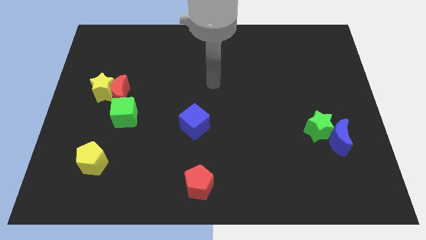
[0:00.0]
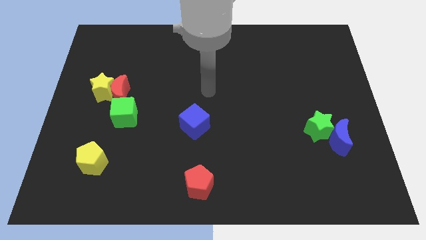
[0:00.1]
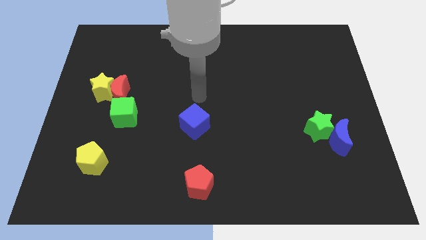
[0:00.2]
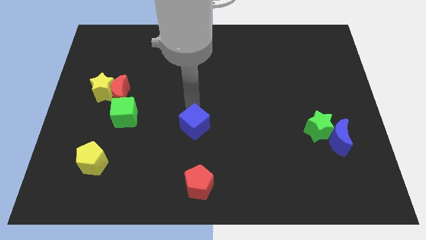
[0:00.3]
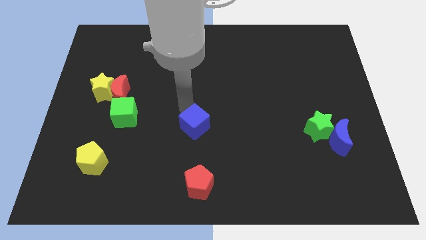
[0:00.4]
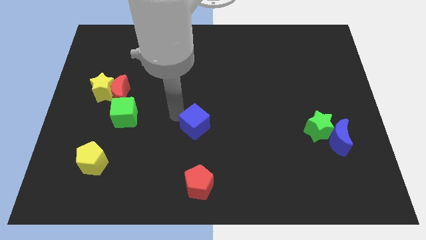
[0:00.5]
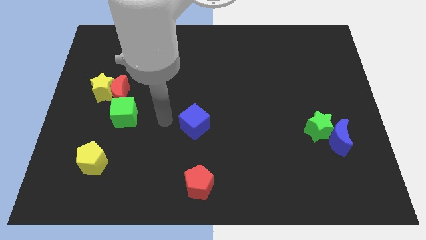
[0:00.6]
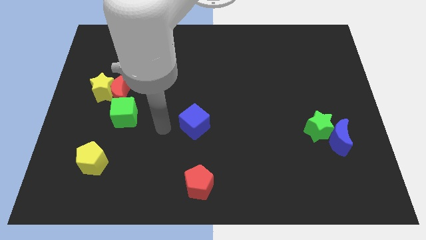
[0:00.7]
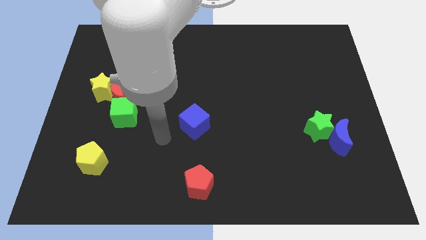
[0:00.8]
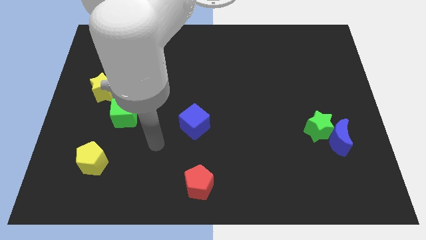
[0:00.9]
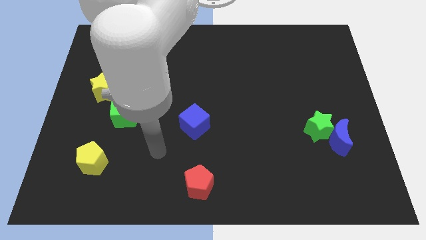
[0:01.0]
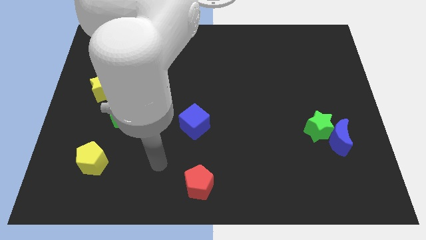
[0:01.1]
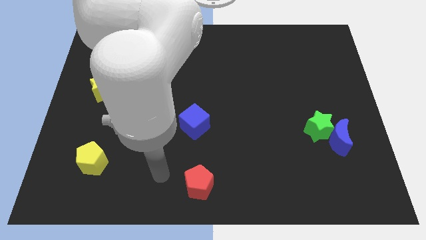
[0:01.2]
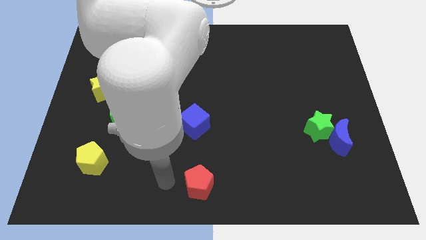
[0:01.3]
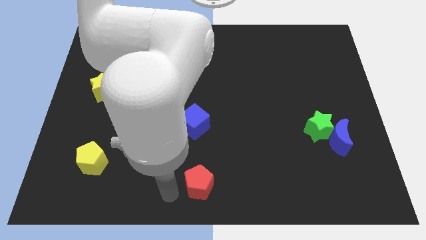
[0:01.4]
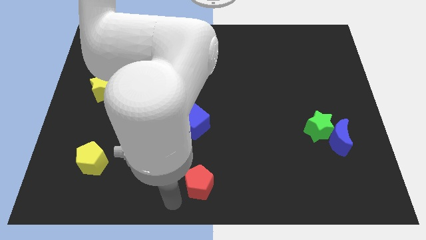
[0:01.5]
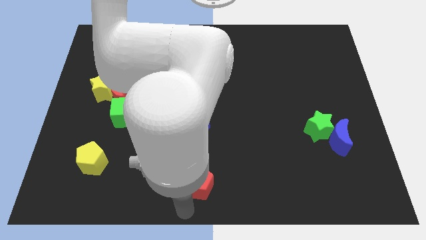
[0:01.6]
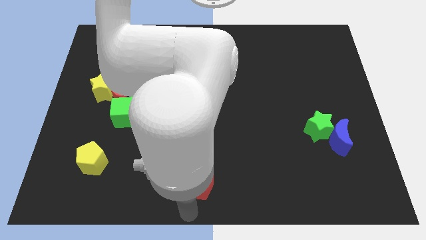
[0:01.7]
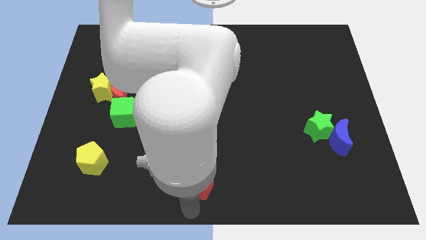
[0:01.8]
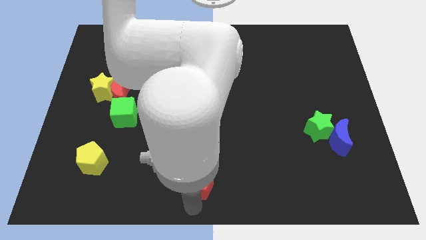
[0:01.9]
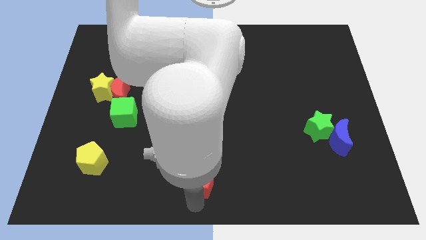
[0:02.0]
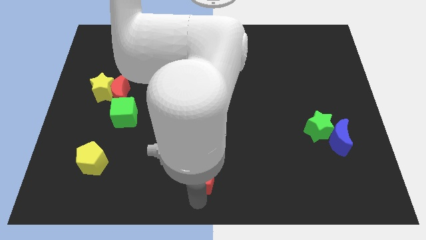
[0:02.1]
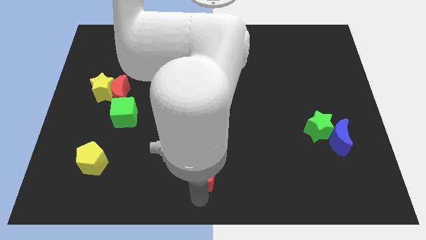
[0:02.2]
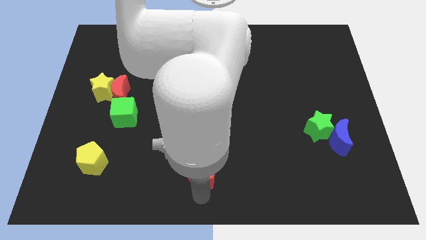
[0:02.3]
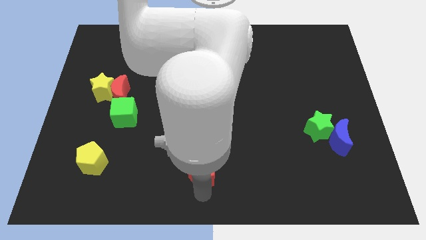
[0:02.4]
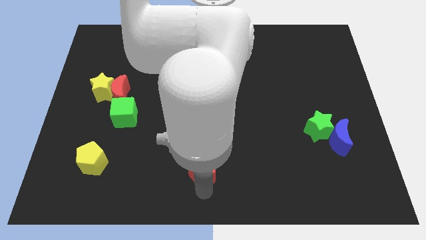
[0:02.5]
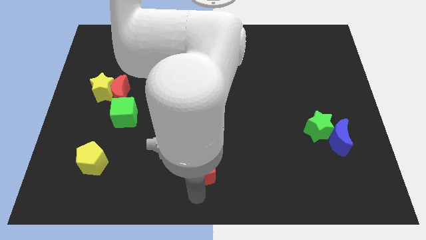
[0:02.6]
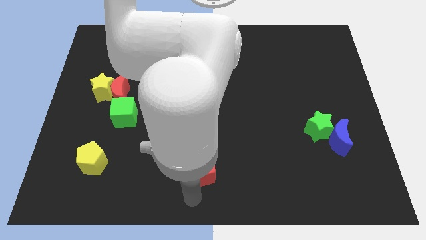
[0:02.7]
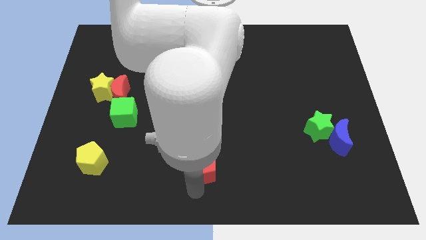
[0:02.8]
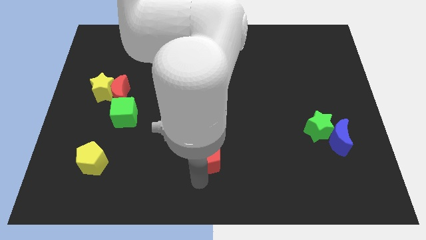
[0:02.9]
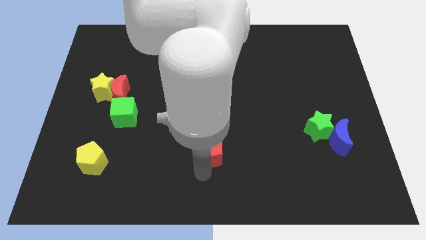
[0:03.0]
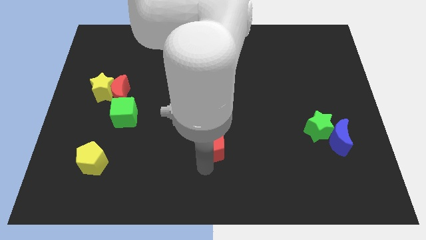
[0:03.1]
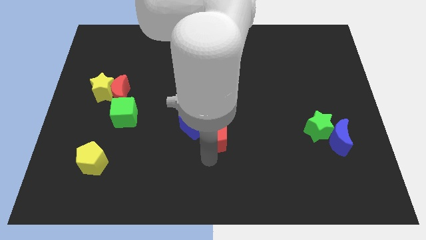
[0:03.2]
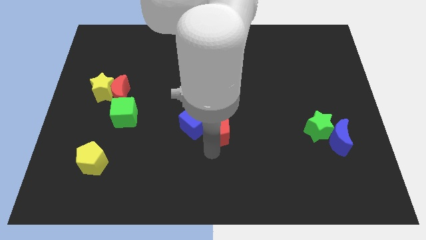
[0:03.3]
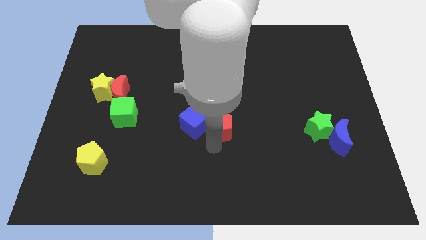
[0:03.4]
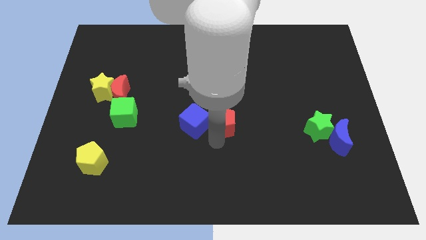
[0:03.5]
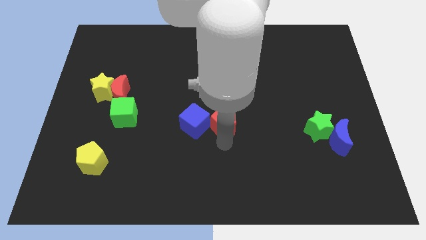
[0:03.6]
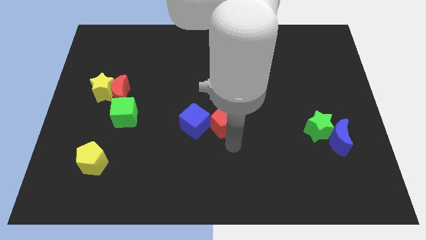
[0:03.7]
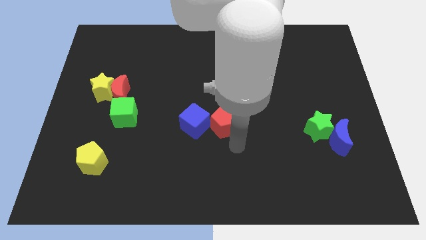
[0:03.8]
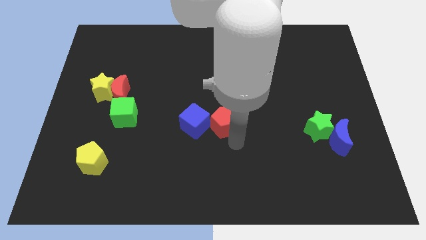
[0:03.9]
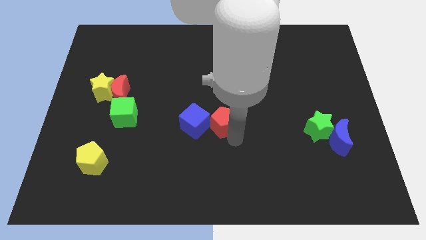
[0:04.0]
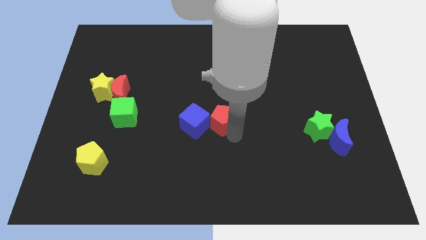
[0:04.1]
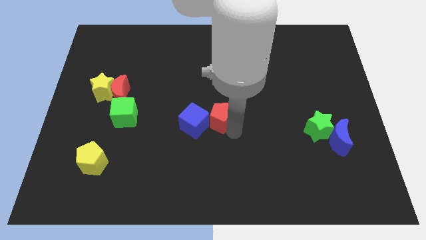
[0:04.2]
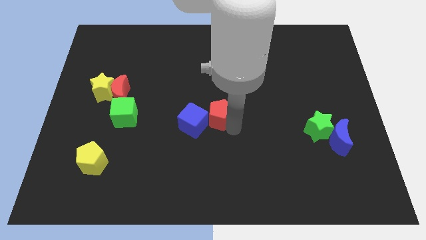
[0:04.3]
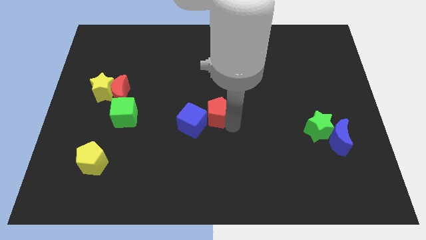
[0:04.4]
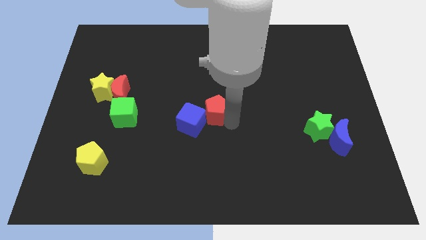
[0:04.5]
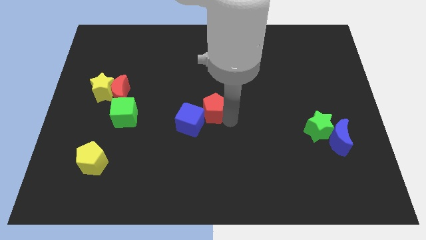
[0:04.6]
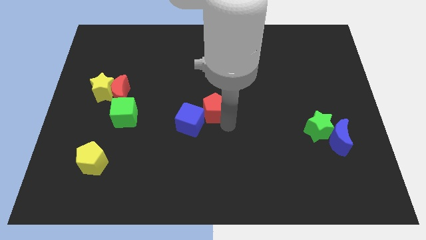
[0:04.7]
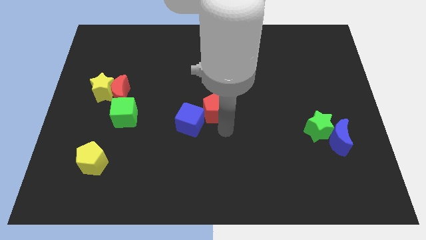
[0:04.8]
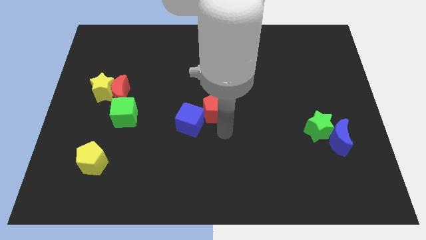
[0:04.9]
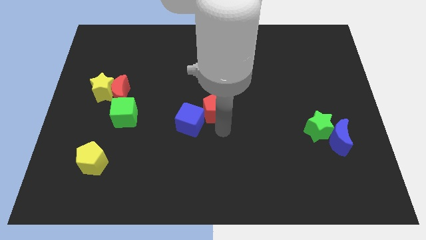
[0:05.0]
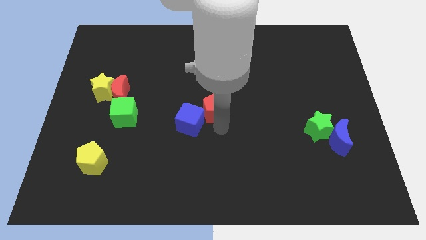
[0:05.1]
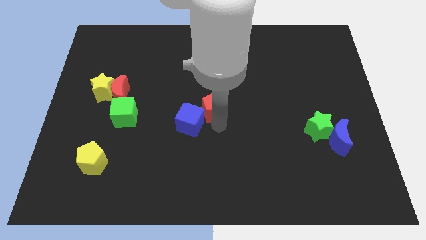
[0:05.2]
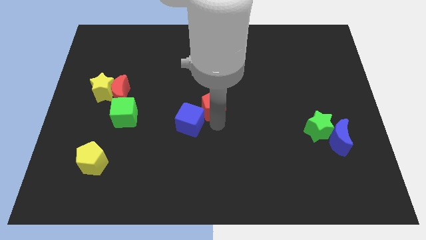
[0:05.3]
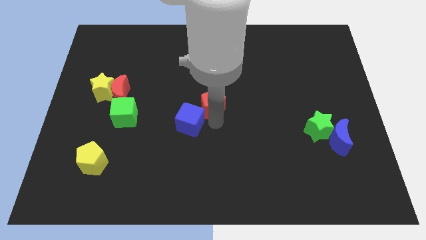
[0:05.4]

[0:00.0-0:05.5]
push the red pentagon upwards

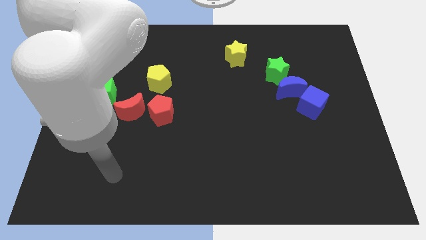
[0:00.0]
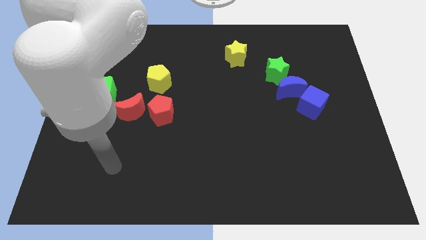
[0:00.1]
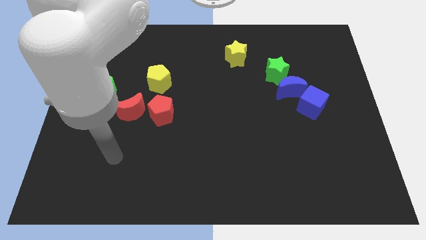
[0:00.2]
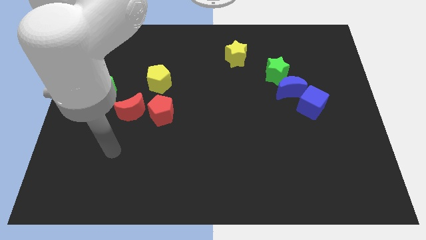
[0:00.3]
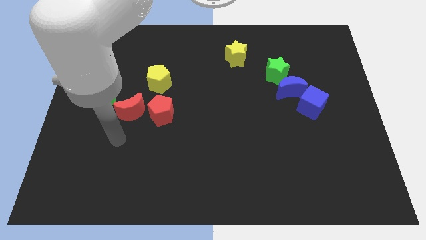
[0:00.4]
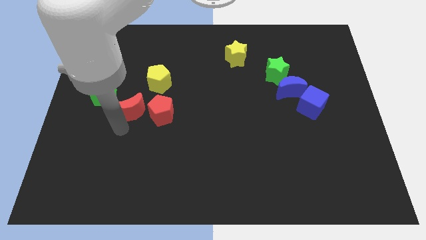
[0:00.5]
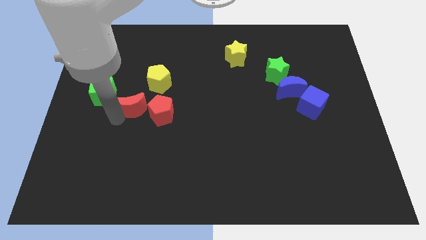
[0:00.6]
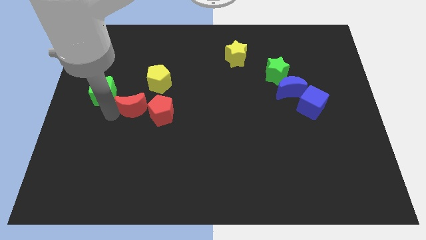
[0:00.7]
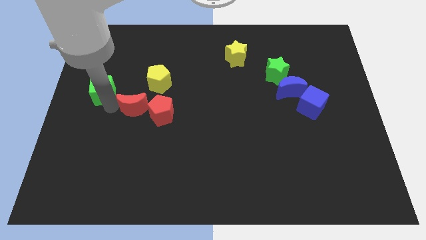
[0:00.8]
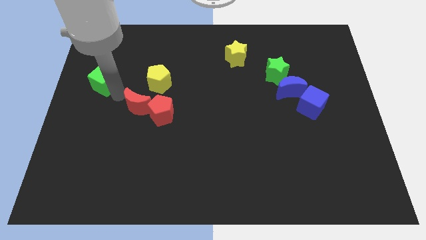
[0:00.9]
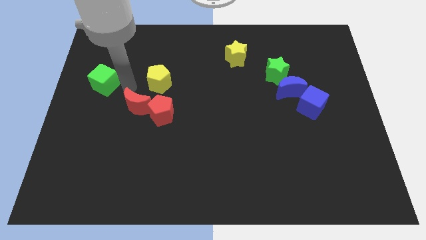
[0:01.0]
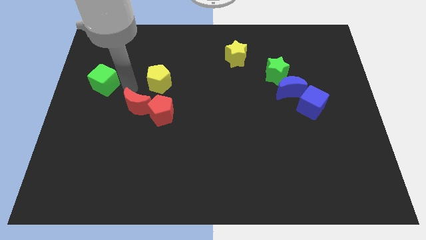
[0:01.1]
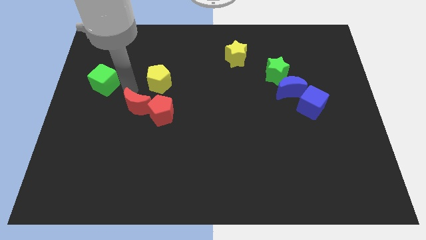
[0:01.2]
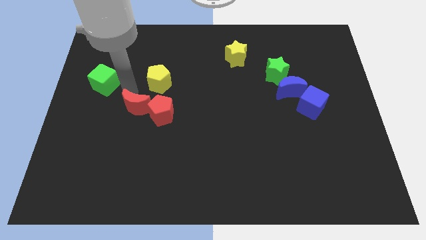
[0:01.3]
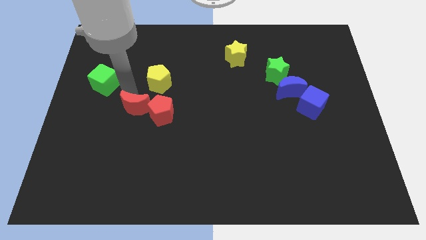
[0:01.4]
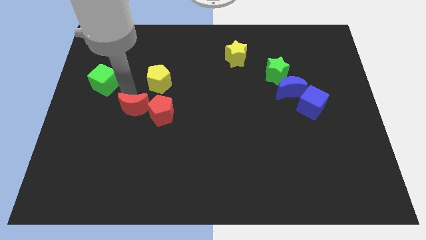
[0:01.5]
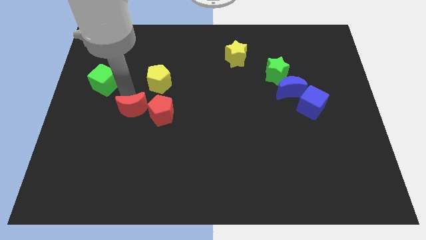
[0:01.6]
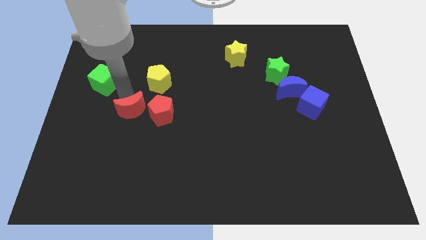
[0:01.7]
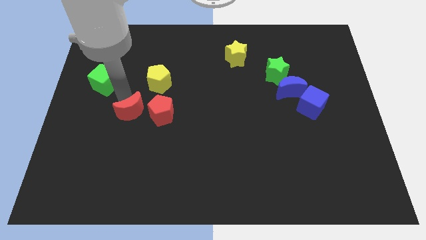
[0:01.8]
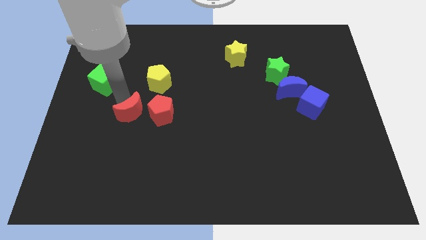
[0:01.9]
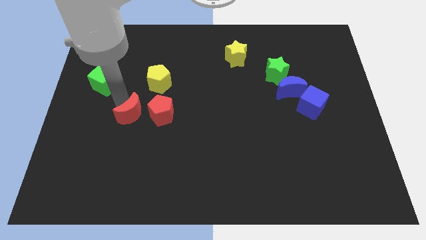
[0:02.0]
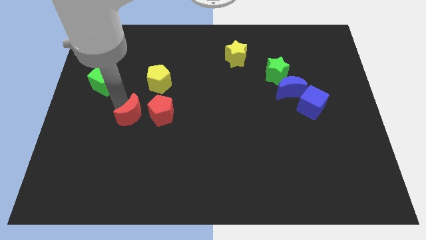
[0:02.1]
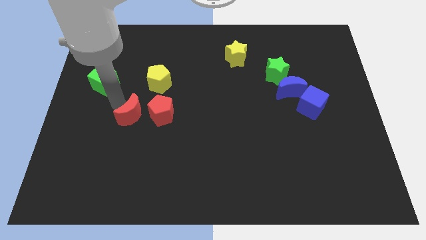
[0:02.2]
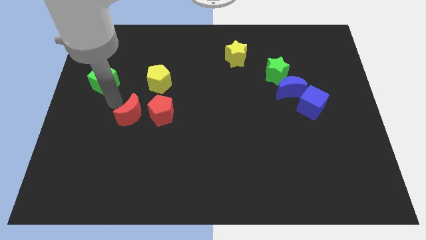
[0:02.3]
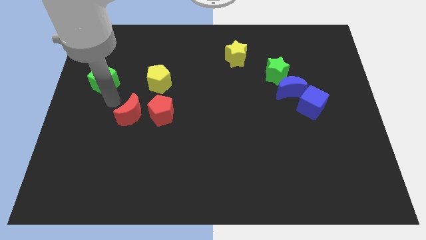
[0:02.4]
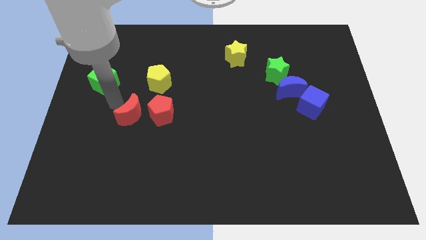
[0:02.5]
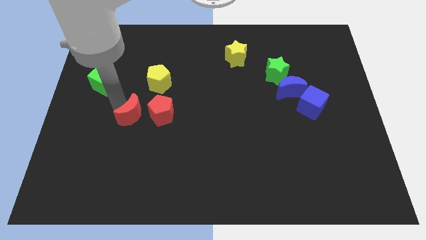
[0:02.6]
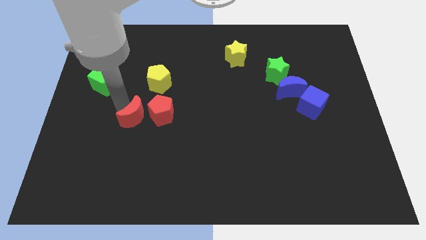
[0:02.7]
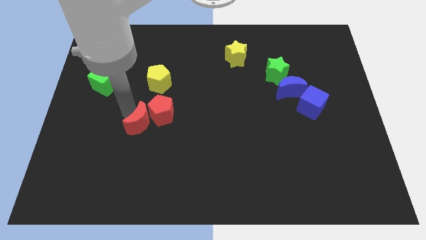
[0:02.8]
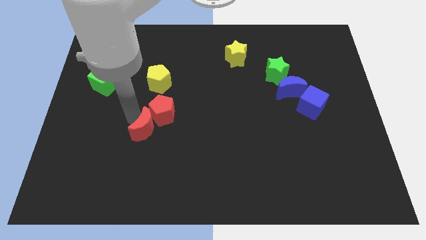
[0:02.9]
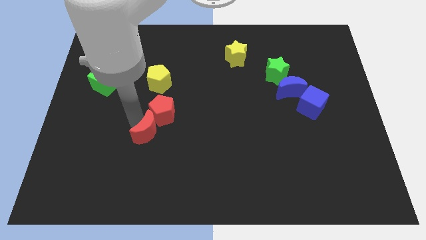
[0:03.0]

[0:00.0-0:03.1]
slightly move the red moon down and right diagonally
